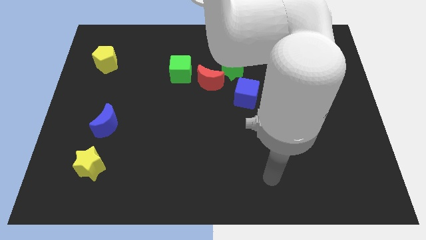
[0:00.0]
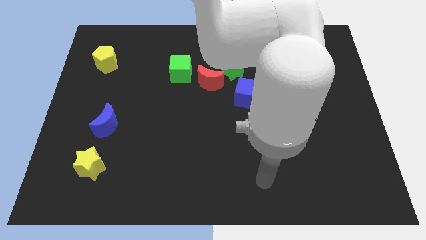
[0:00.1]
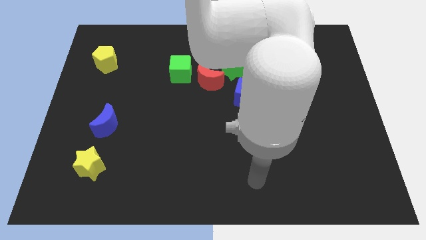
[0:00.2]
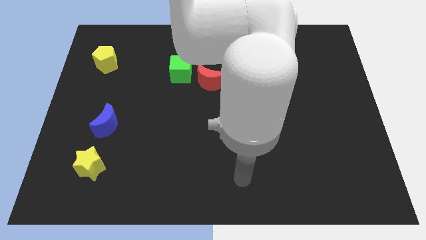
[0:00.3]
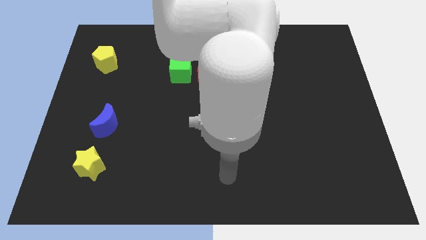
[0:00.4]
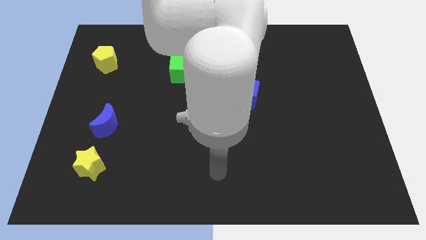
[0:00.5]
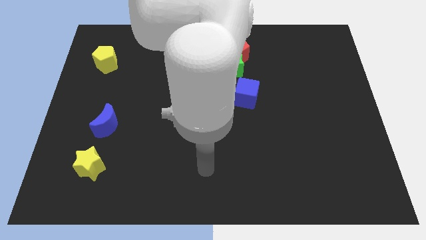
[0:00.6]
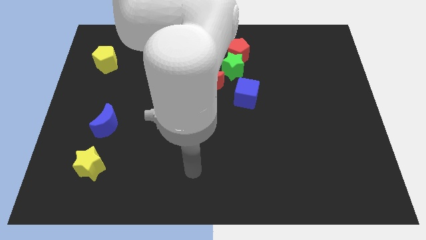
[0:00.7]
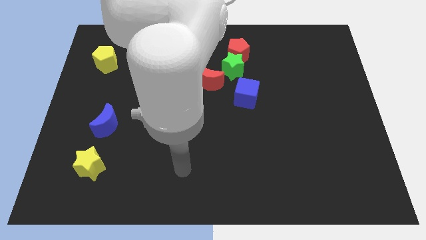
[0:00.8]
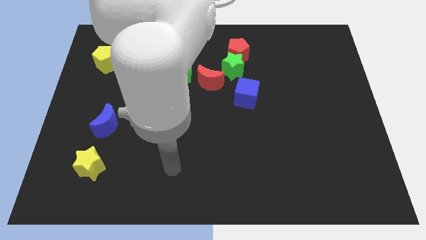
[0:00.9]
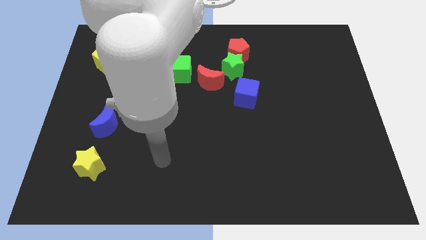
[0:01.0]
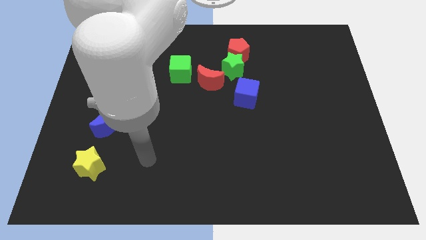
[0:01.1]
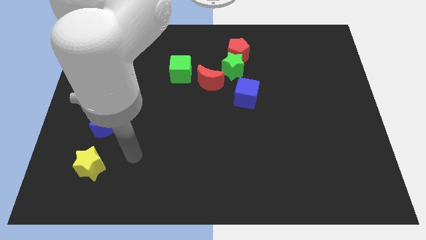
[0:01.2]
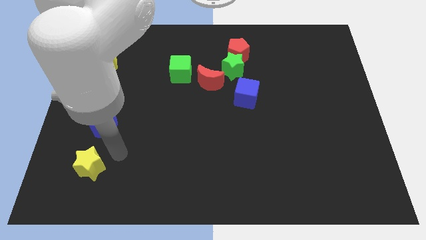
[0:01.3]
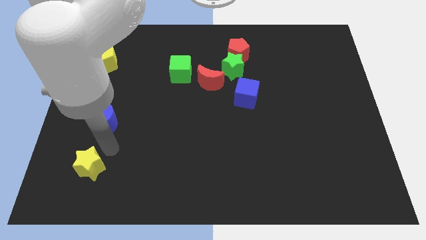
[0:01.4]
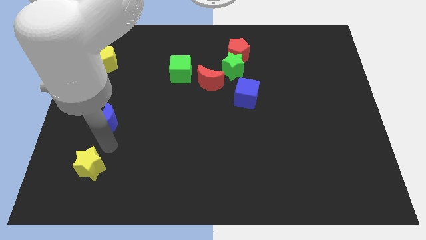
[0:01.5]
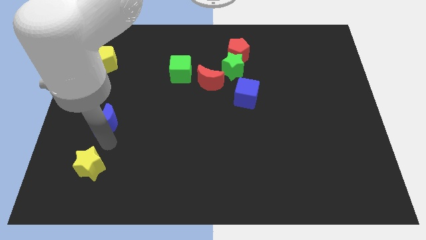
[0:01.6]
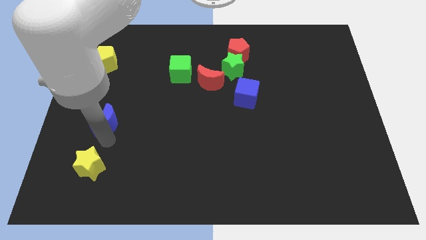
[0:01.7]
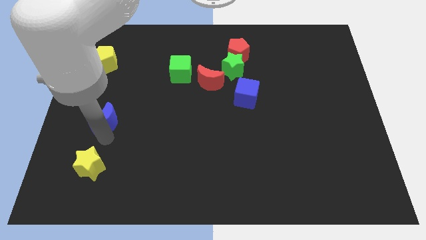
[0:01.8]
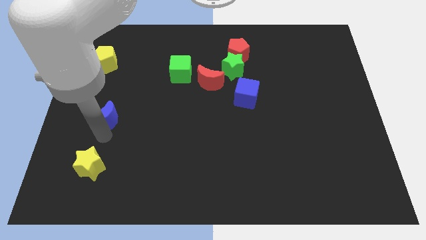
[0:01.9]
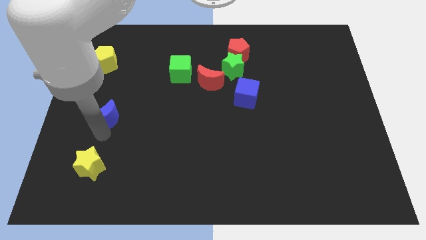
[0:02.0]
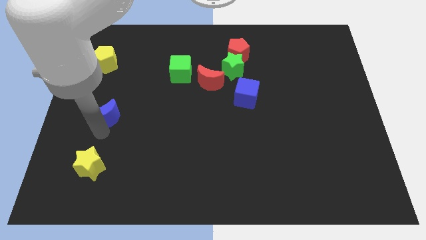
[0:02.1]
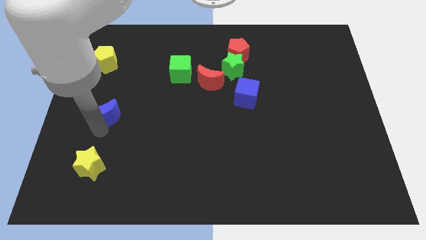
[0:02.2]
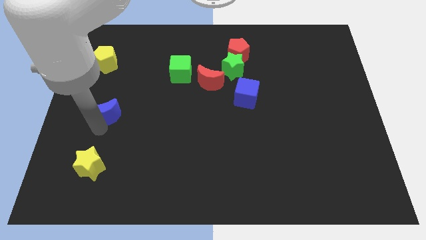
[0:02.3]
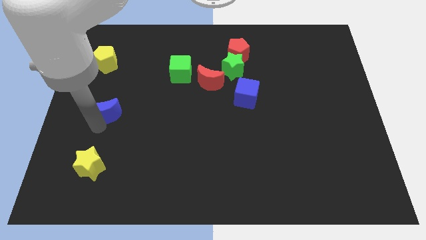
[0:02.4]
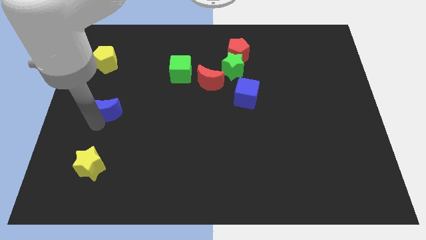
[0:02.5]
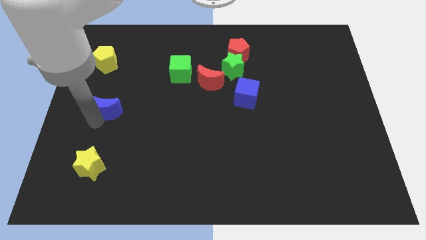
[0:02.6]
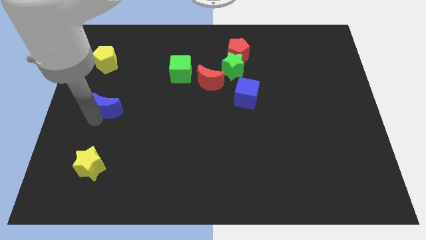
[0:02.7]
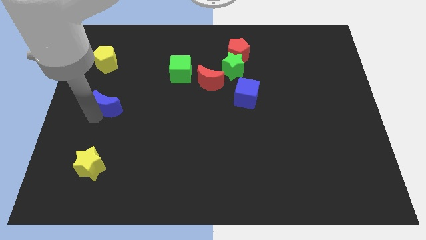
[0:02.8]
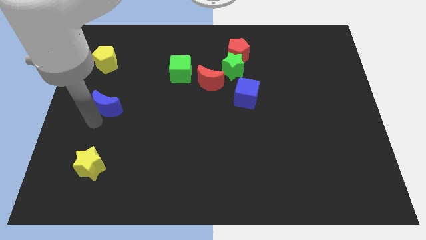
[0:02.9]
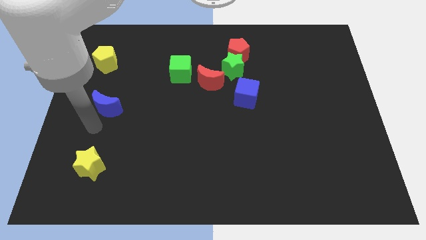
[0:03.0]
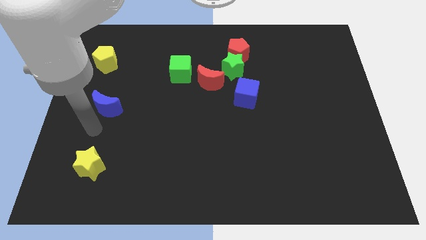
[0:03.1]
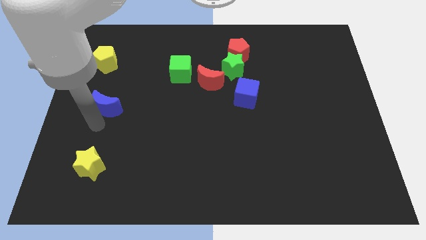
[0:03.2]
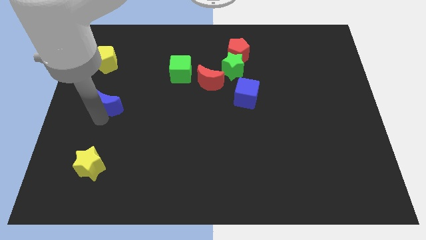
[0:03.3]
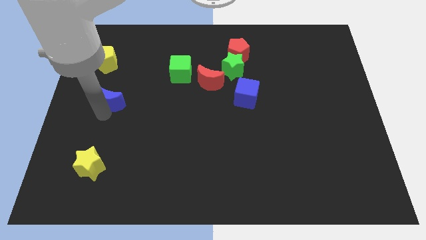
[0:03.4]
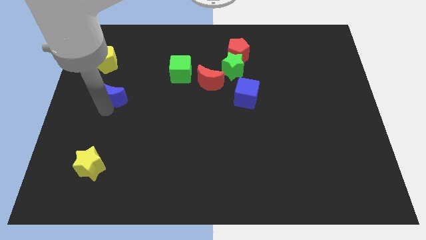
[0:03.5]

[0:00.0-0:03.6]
move the blue moon a little bit up

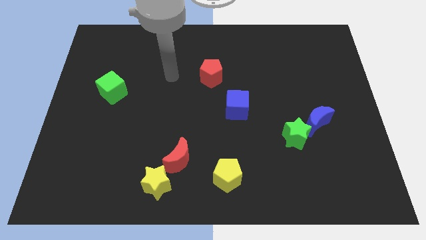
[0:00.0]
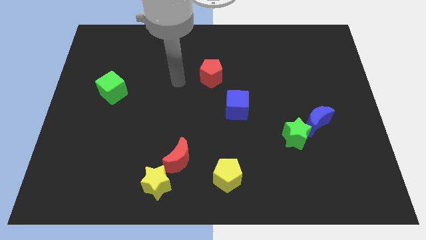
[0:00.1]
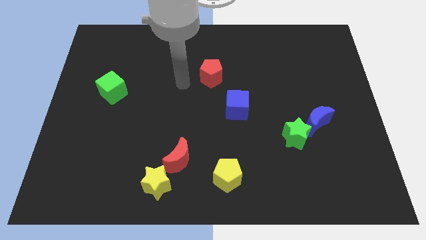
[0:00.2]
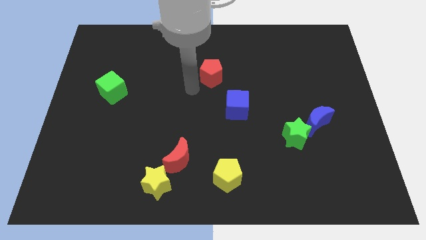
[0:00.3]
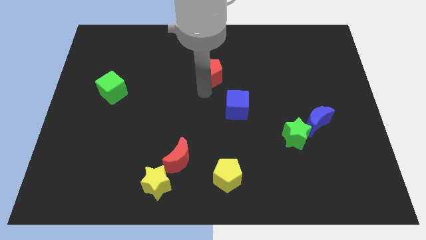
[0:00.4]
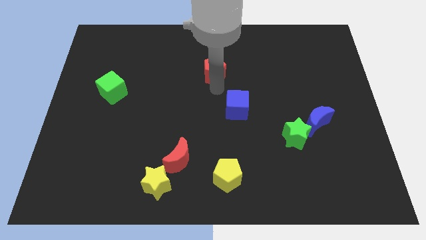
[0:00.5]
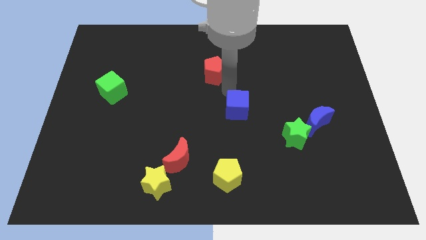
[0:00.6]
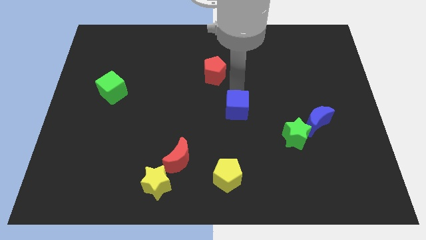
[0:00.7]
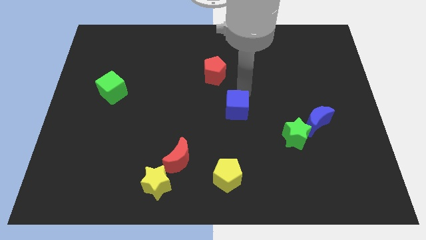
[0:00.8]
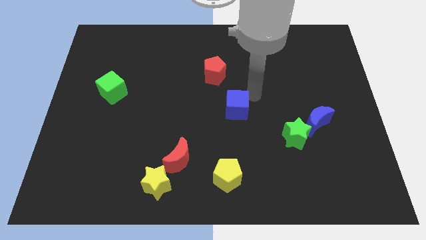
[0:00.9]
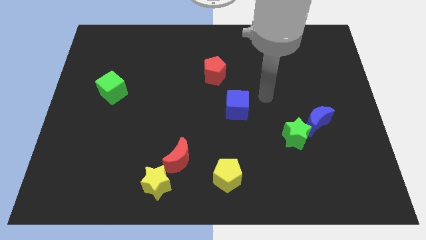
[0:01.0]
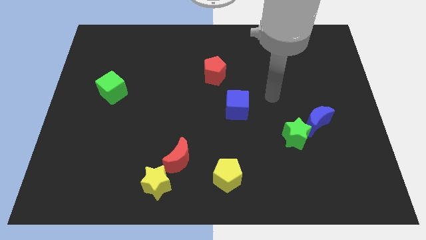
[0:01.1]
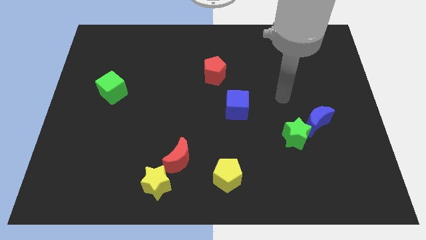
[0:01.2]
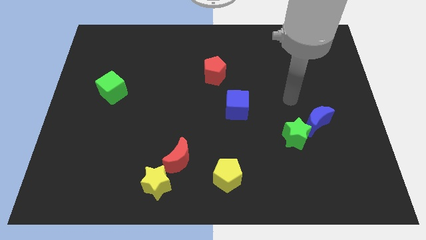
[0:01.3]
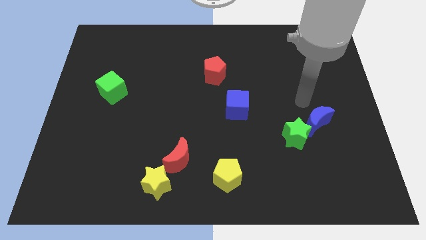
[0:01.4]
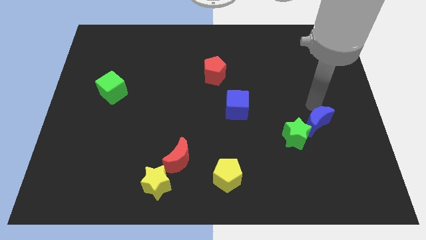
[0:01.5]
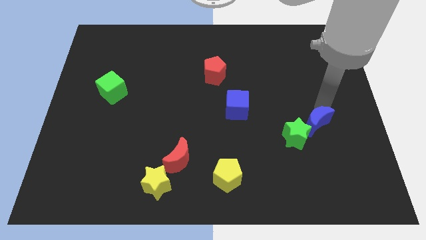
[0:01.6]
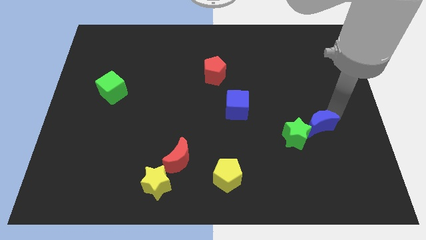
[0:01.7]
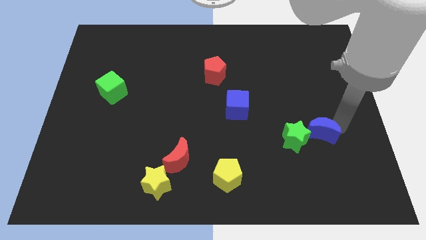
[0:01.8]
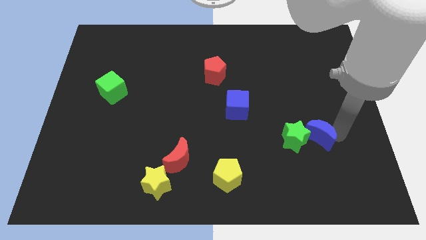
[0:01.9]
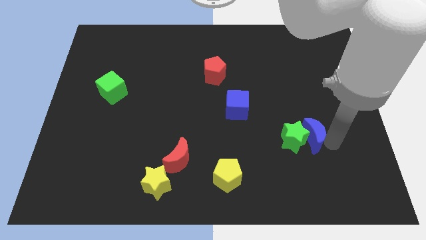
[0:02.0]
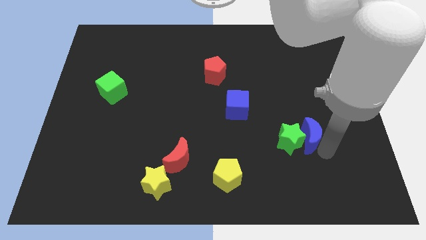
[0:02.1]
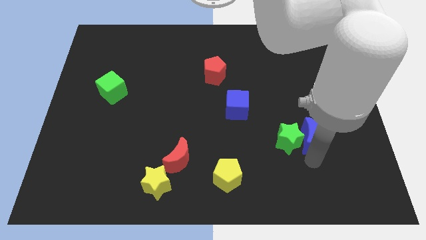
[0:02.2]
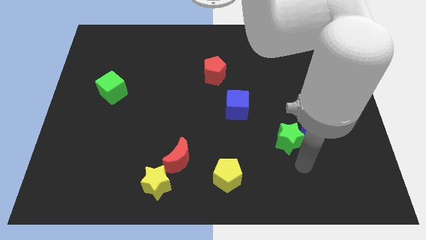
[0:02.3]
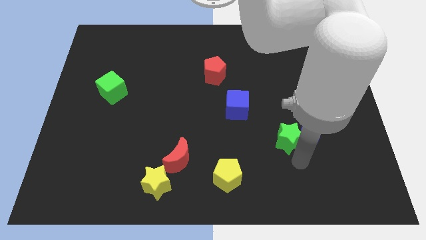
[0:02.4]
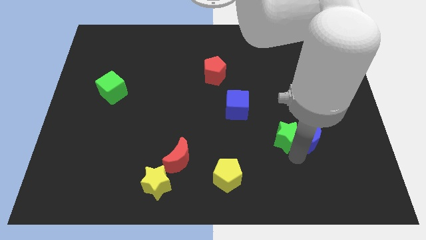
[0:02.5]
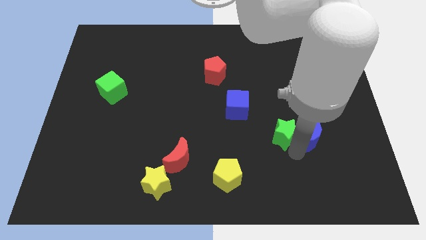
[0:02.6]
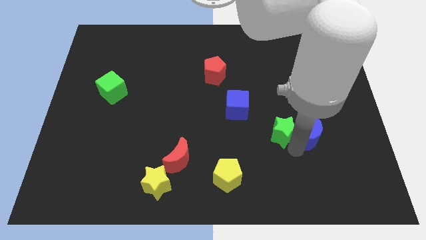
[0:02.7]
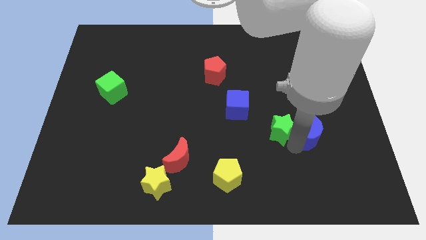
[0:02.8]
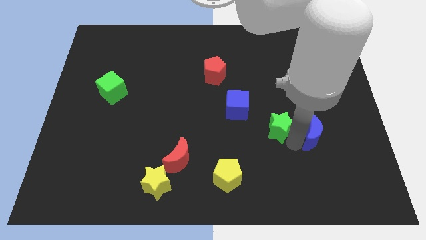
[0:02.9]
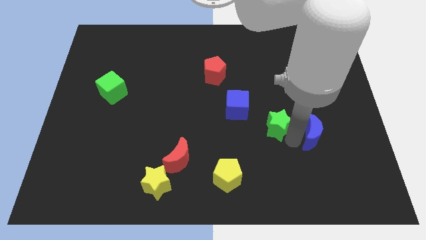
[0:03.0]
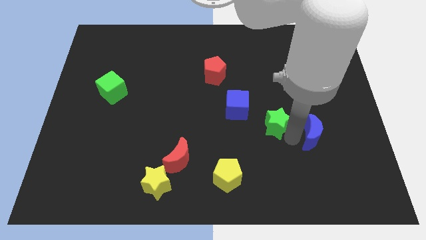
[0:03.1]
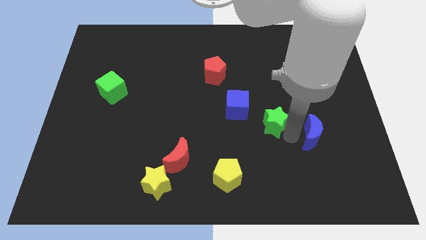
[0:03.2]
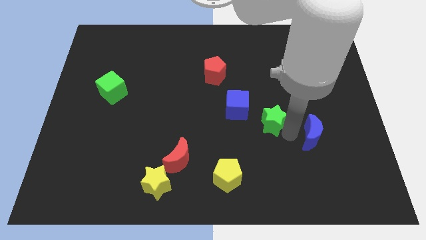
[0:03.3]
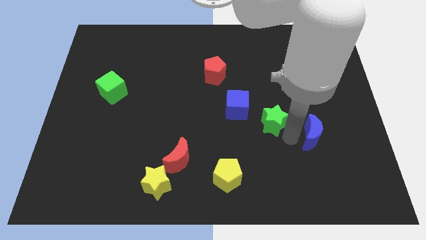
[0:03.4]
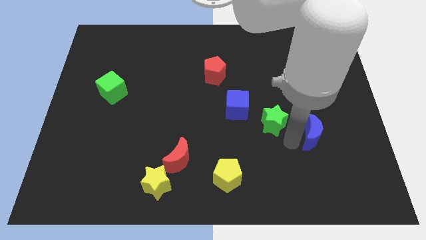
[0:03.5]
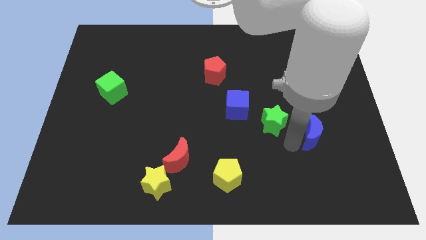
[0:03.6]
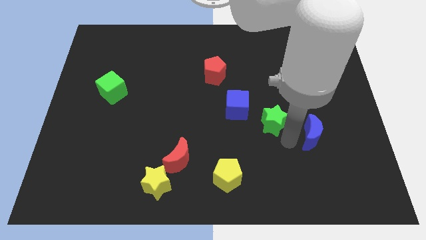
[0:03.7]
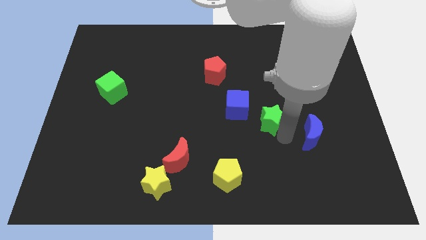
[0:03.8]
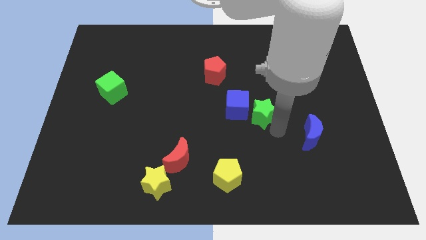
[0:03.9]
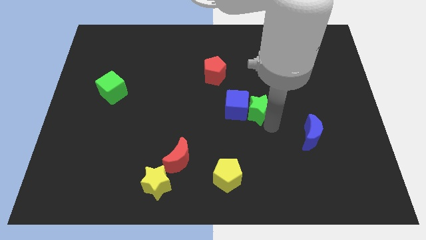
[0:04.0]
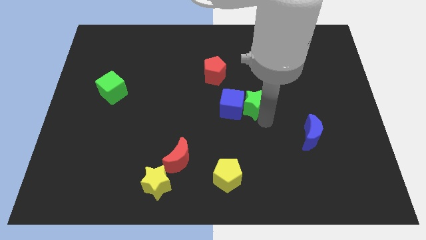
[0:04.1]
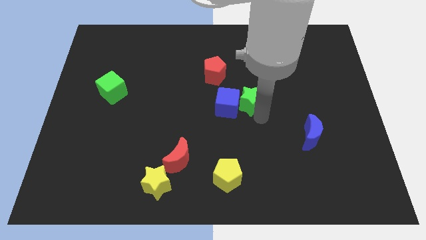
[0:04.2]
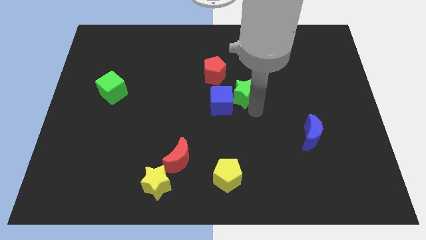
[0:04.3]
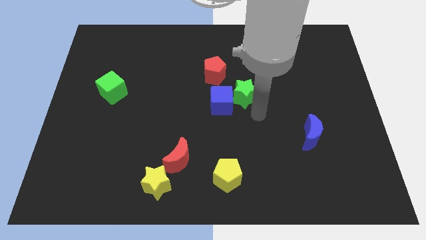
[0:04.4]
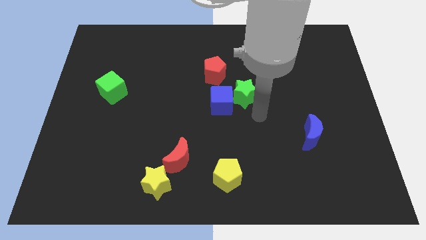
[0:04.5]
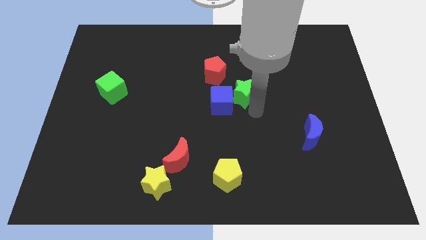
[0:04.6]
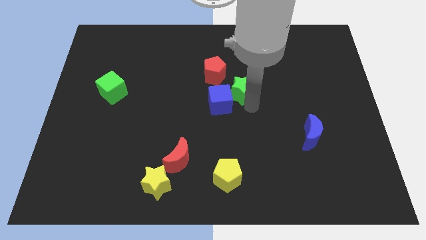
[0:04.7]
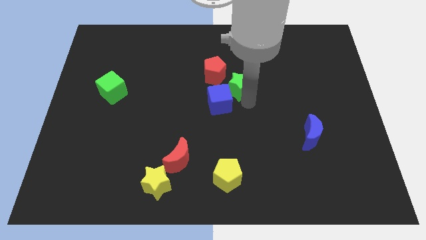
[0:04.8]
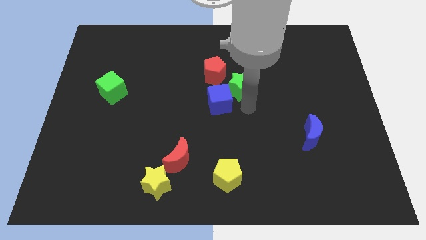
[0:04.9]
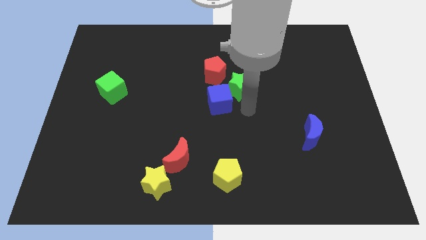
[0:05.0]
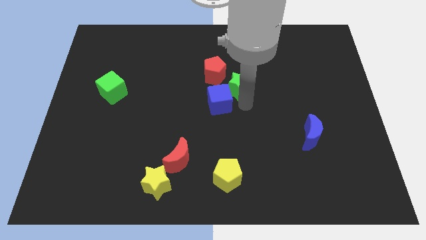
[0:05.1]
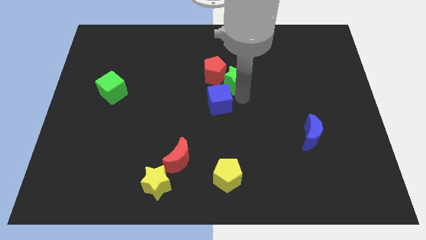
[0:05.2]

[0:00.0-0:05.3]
move the green star upwards and to the left diagonally
